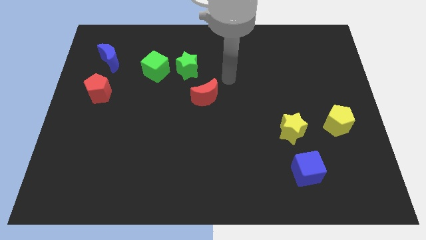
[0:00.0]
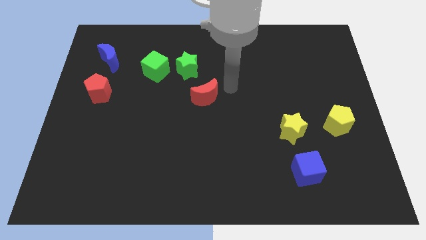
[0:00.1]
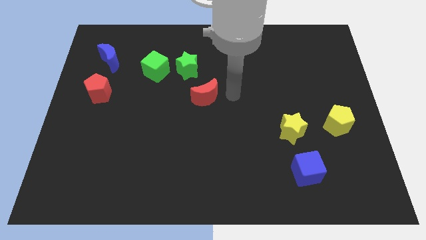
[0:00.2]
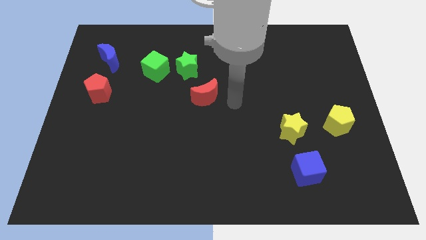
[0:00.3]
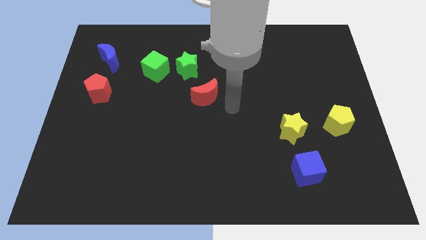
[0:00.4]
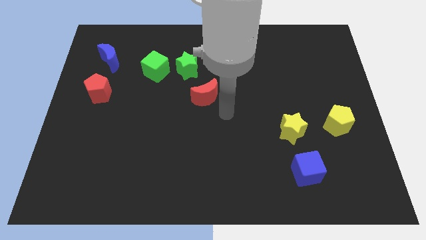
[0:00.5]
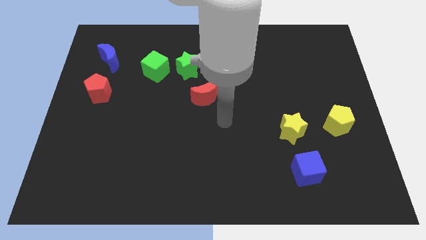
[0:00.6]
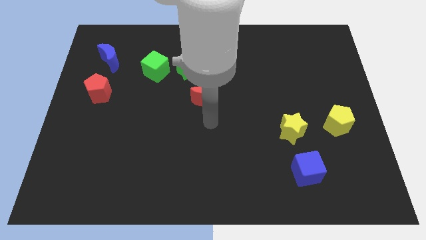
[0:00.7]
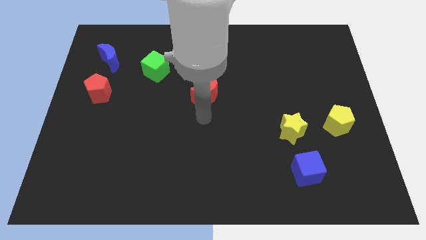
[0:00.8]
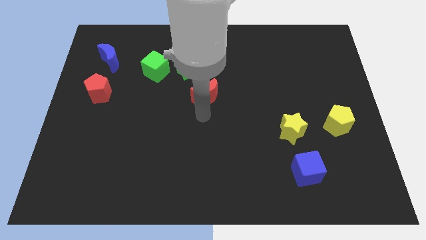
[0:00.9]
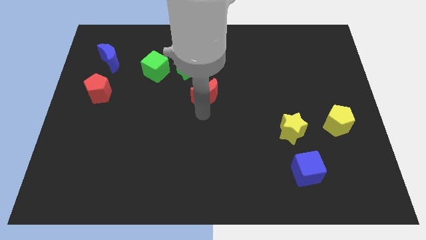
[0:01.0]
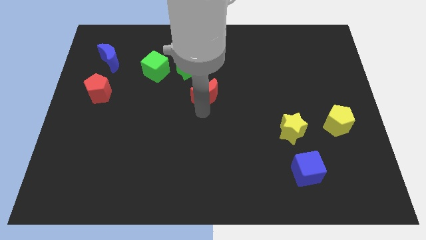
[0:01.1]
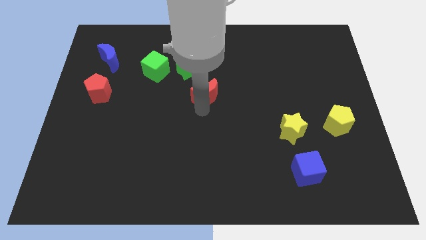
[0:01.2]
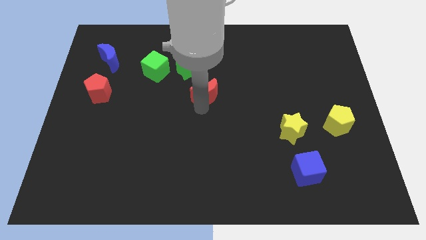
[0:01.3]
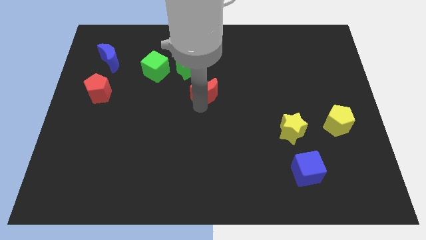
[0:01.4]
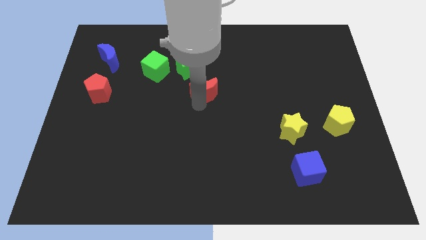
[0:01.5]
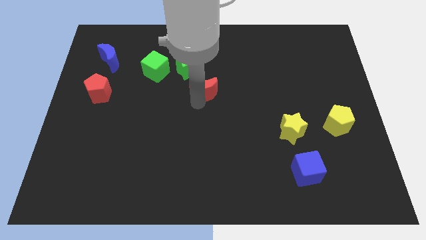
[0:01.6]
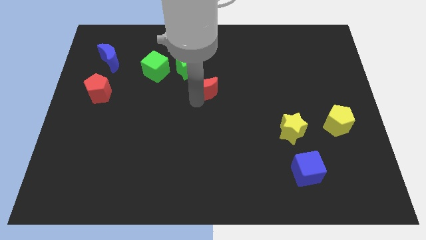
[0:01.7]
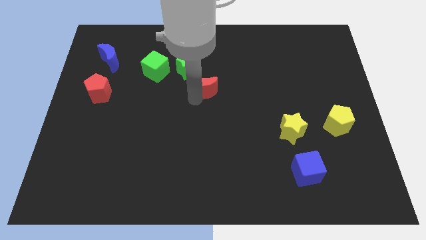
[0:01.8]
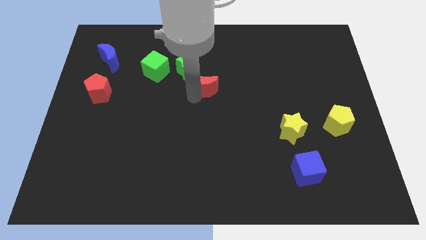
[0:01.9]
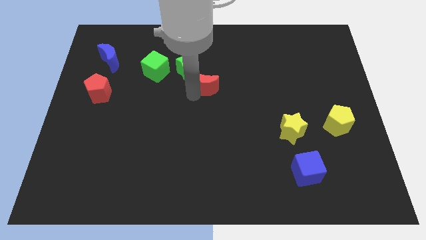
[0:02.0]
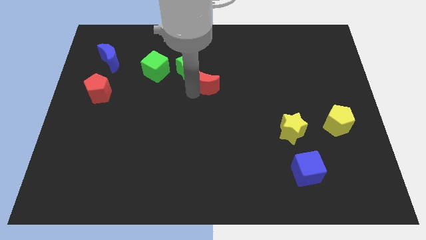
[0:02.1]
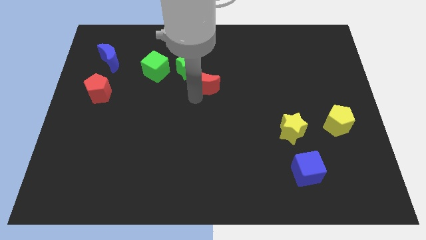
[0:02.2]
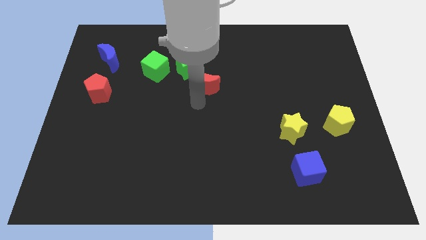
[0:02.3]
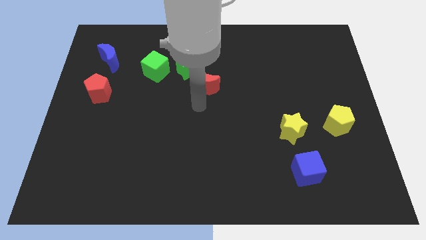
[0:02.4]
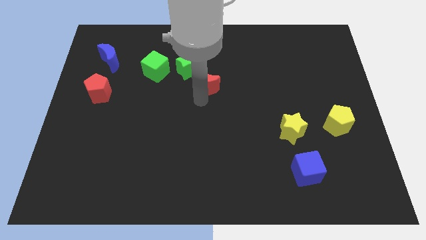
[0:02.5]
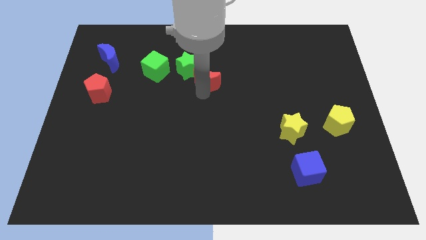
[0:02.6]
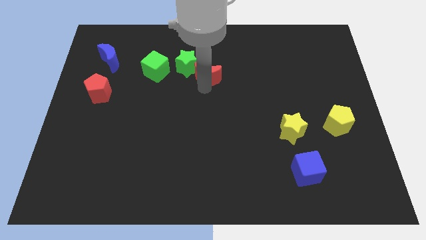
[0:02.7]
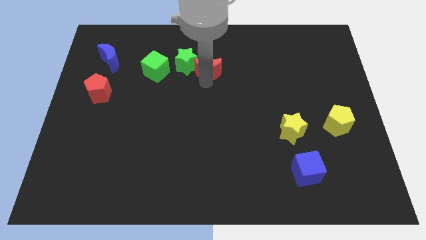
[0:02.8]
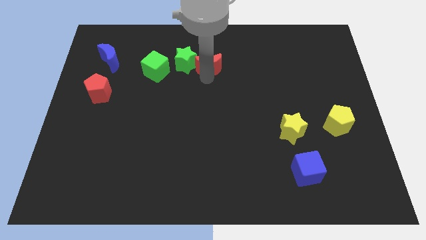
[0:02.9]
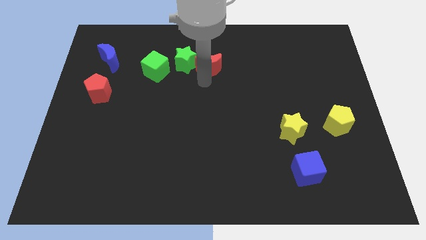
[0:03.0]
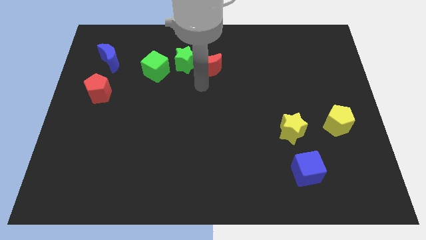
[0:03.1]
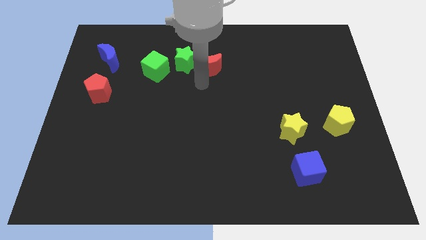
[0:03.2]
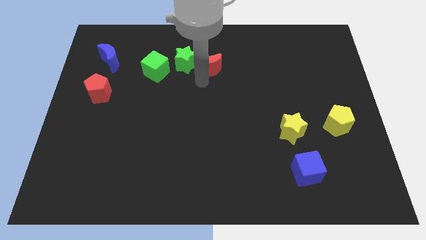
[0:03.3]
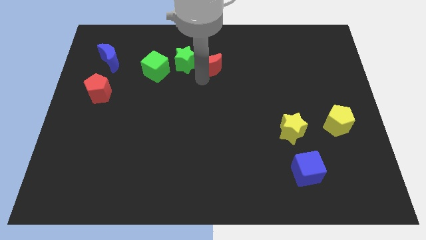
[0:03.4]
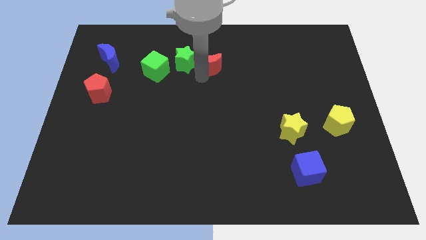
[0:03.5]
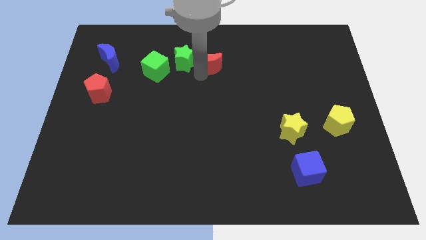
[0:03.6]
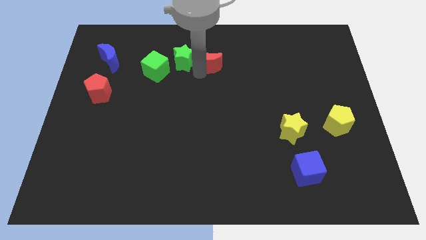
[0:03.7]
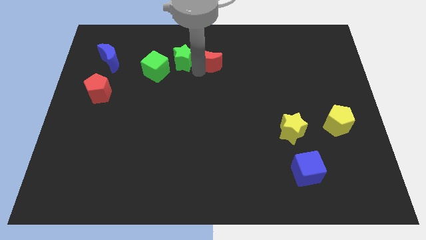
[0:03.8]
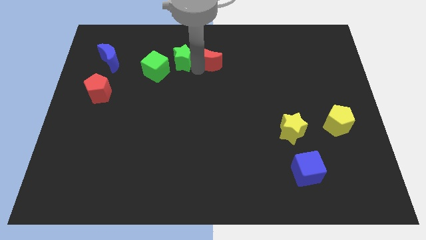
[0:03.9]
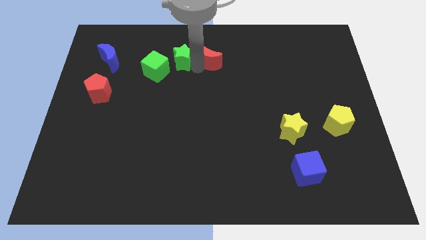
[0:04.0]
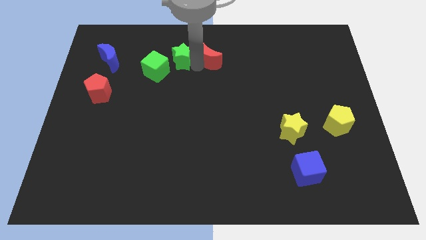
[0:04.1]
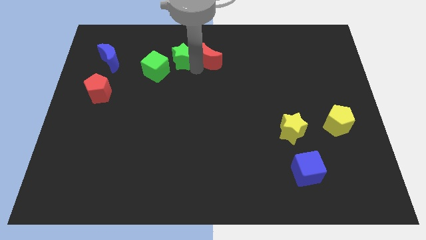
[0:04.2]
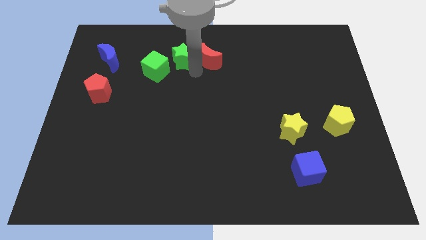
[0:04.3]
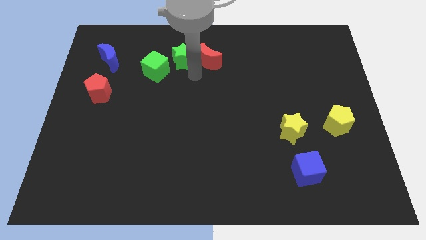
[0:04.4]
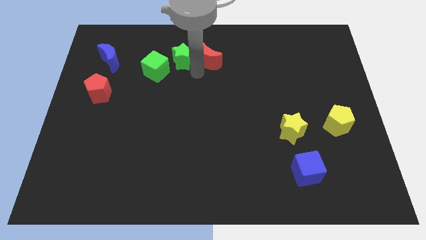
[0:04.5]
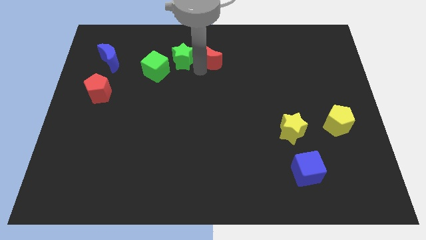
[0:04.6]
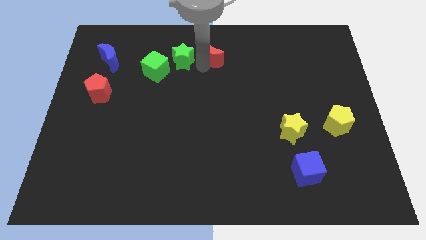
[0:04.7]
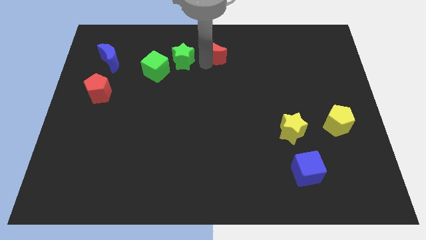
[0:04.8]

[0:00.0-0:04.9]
push the red moon to the top side

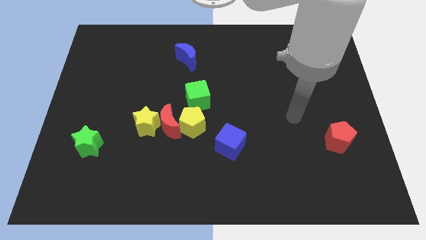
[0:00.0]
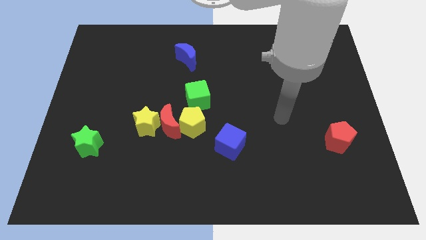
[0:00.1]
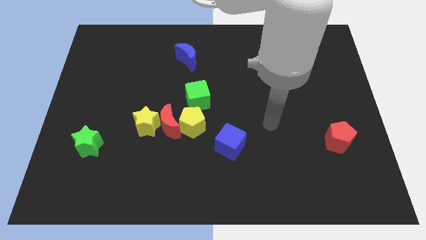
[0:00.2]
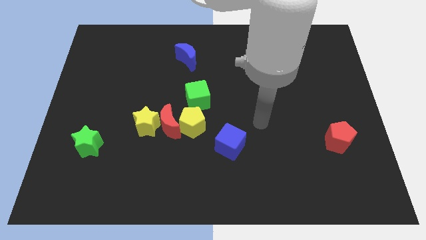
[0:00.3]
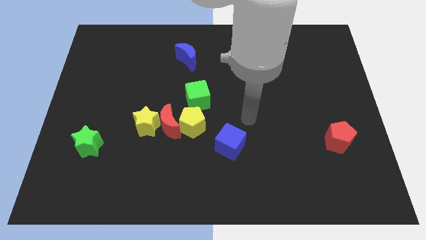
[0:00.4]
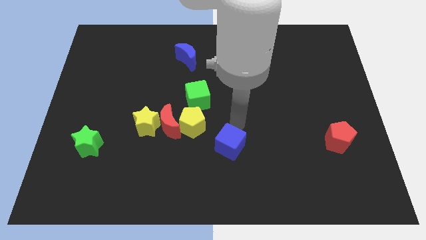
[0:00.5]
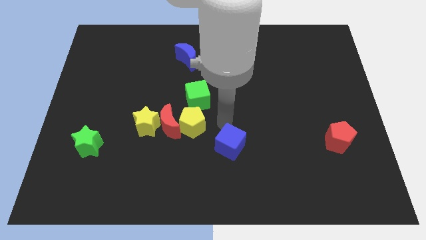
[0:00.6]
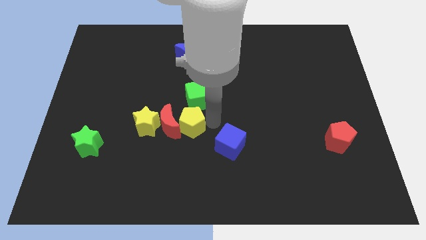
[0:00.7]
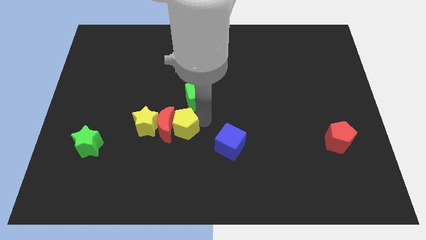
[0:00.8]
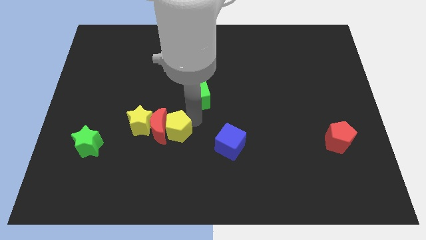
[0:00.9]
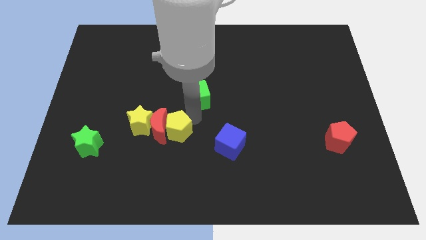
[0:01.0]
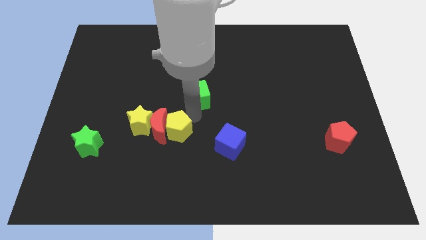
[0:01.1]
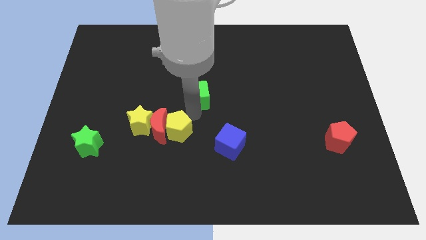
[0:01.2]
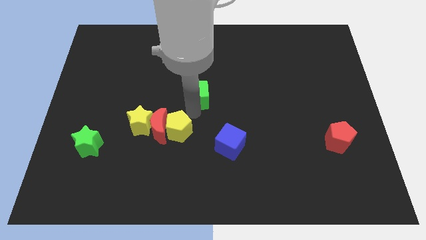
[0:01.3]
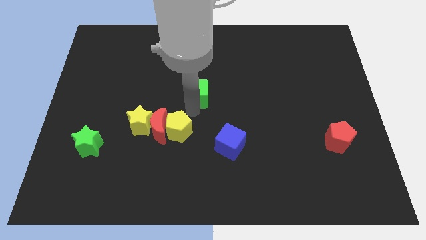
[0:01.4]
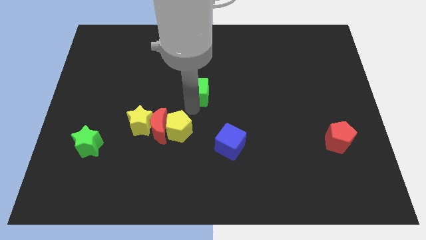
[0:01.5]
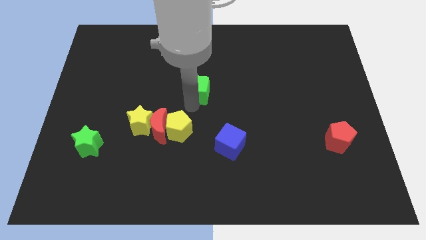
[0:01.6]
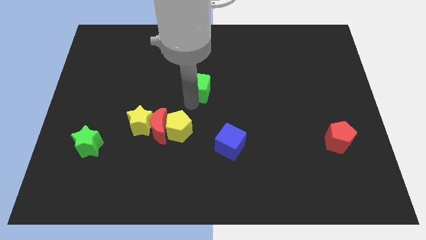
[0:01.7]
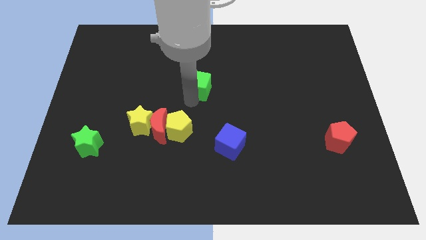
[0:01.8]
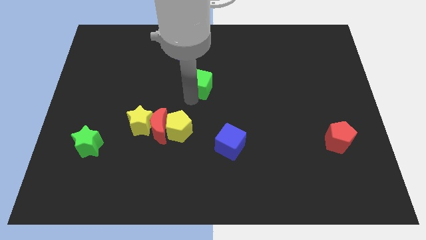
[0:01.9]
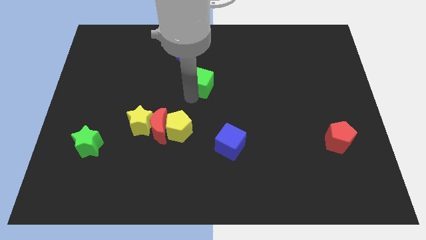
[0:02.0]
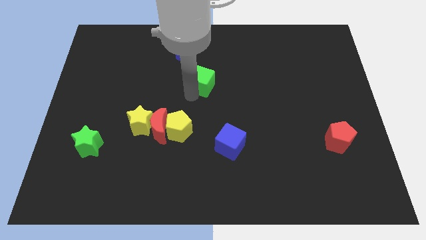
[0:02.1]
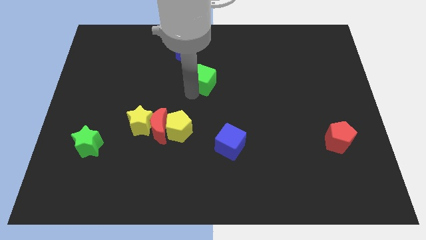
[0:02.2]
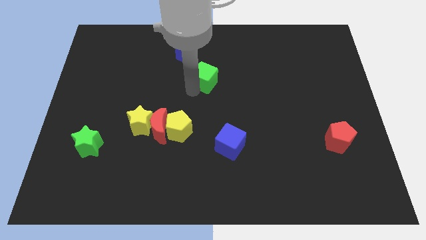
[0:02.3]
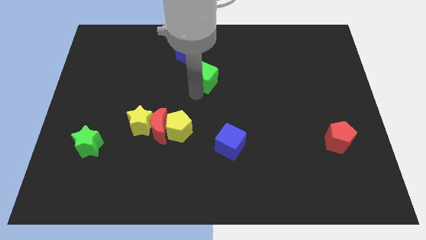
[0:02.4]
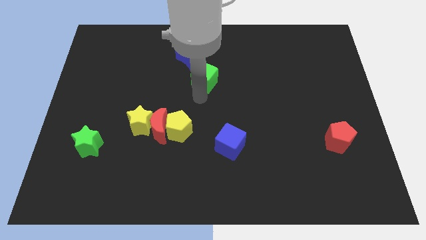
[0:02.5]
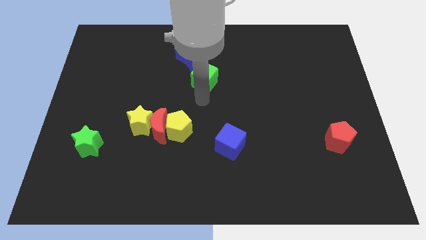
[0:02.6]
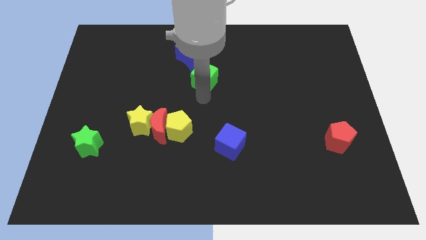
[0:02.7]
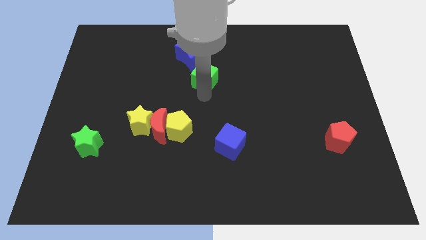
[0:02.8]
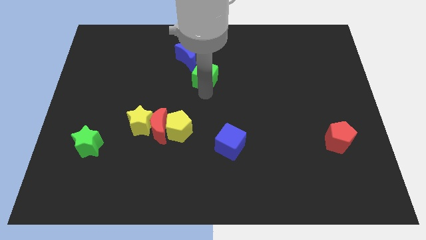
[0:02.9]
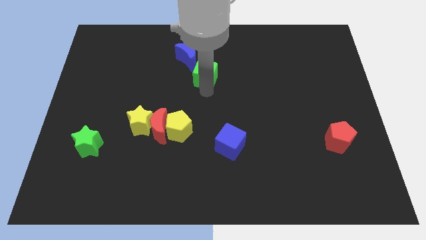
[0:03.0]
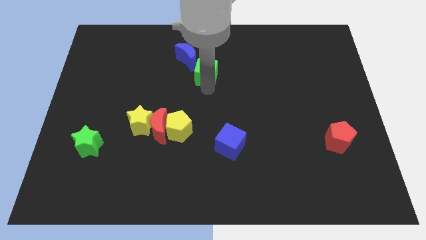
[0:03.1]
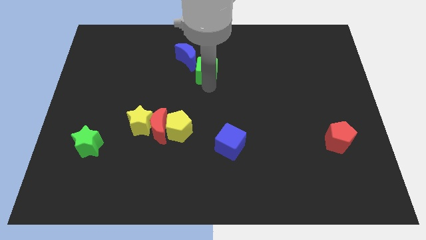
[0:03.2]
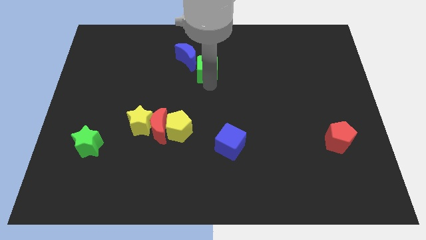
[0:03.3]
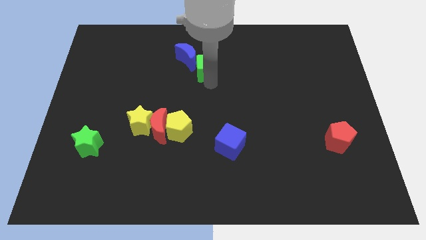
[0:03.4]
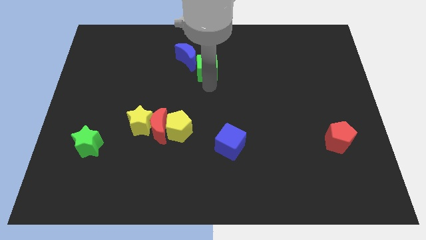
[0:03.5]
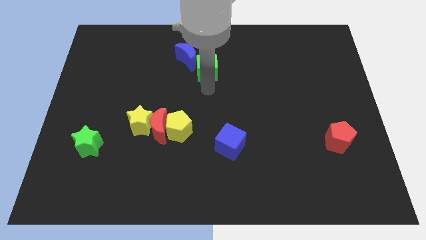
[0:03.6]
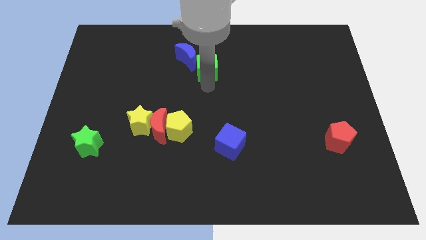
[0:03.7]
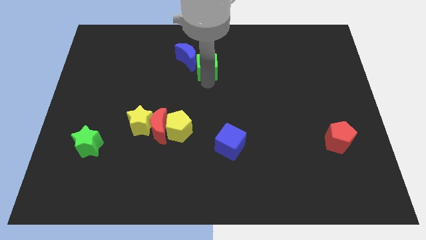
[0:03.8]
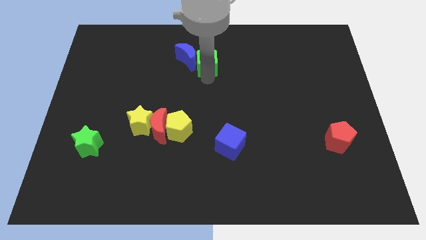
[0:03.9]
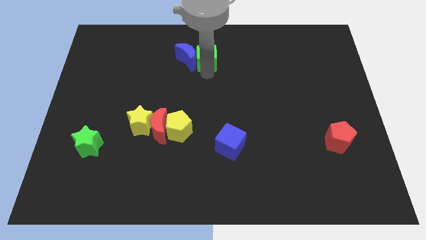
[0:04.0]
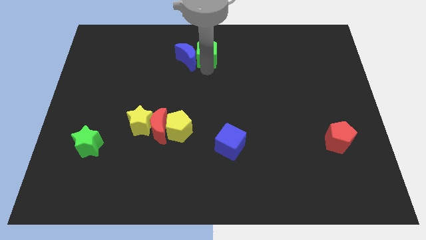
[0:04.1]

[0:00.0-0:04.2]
slide the green cube to the top side
